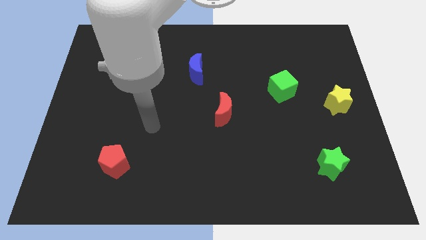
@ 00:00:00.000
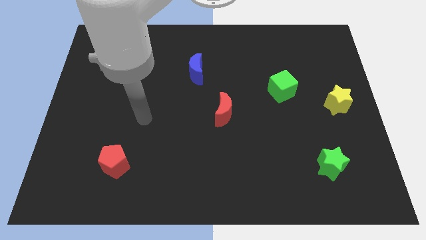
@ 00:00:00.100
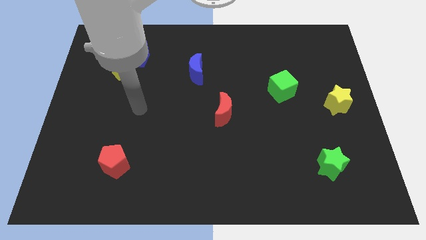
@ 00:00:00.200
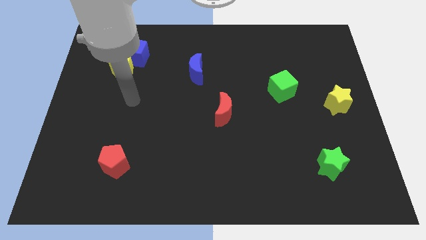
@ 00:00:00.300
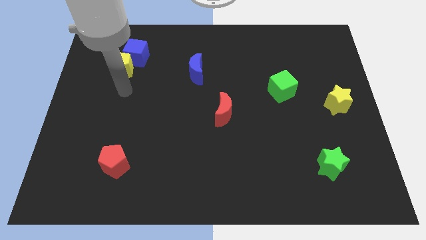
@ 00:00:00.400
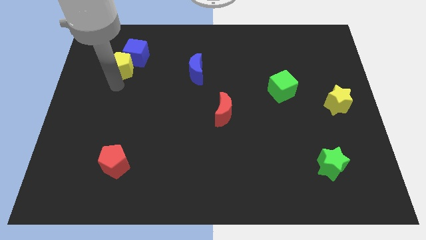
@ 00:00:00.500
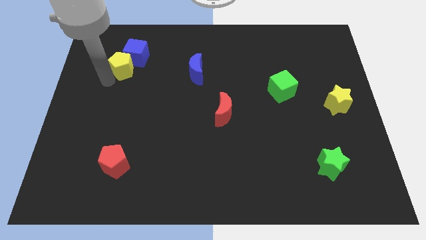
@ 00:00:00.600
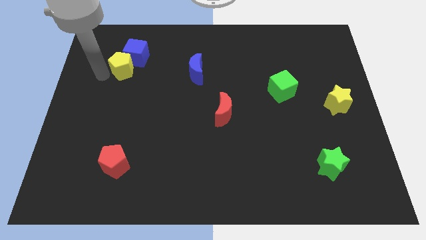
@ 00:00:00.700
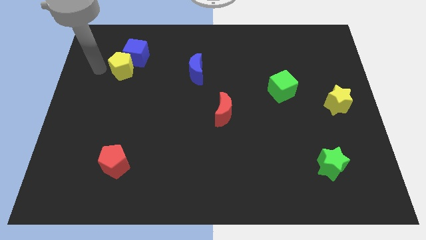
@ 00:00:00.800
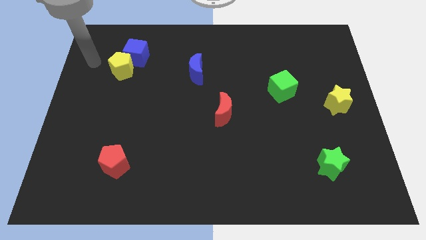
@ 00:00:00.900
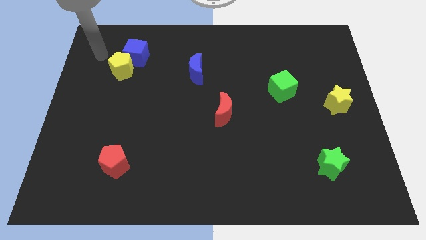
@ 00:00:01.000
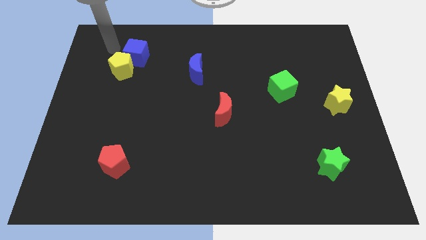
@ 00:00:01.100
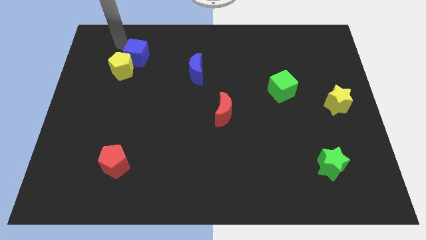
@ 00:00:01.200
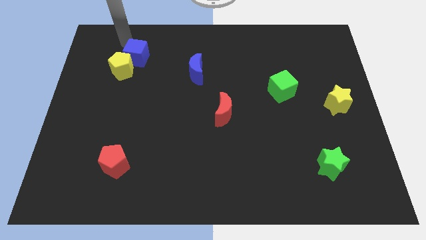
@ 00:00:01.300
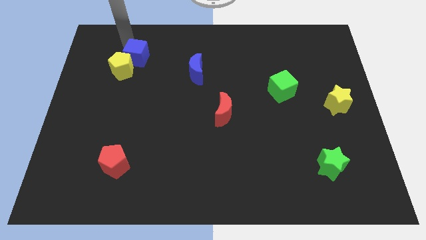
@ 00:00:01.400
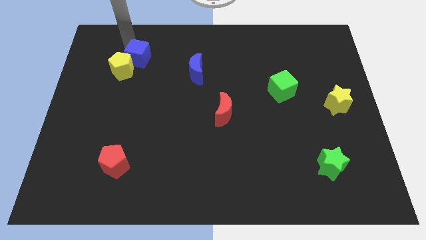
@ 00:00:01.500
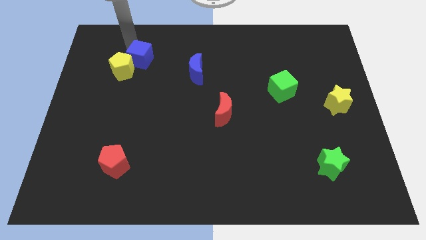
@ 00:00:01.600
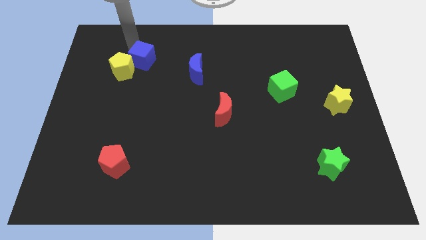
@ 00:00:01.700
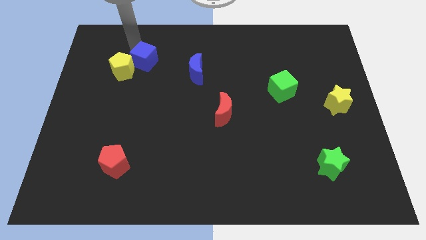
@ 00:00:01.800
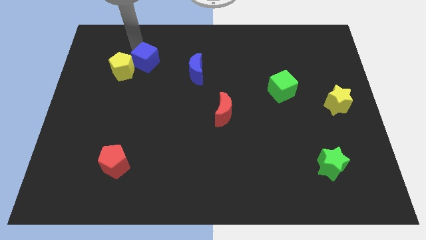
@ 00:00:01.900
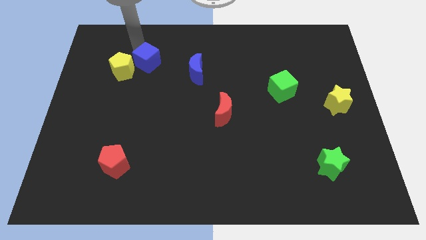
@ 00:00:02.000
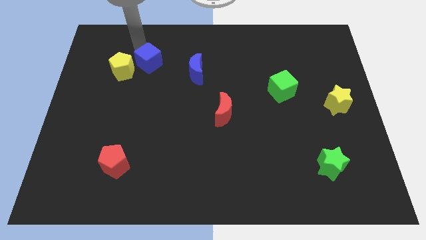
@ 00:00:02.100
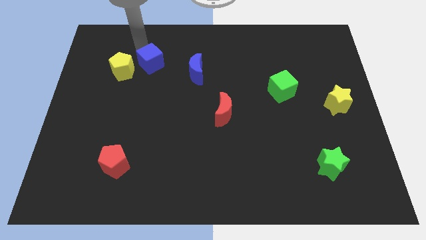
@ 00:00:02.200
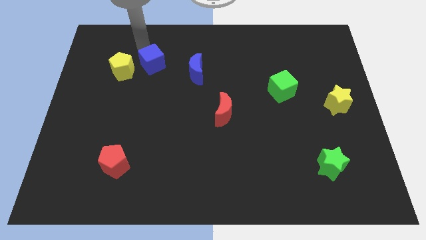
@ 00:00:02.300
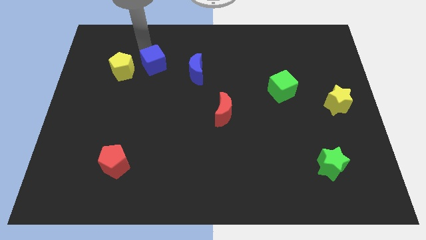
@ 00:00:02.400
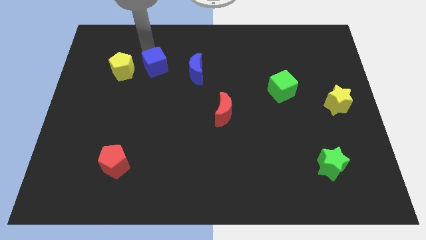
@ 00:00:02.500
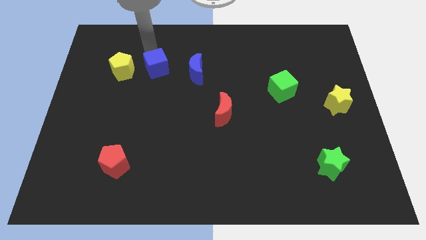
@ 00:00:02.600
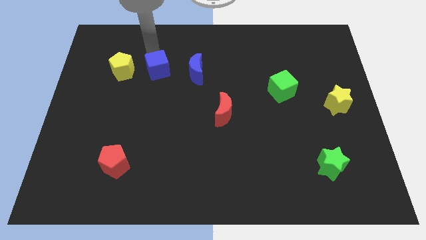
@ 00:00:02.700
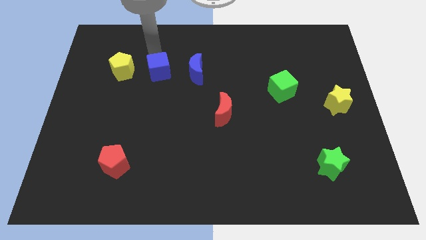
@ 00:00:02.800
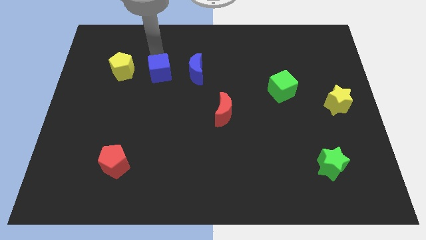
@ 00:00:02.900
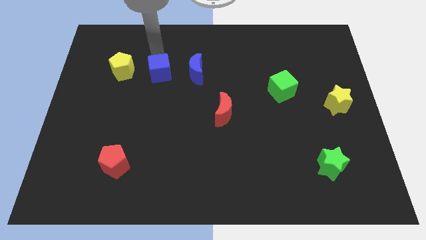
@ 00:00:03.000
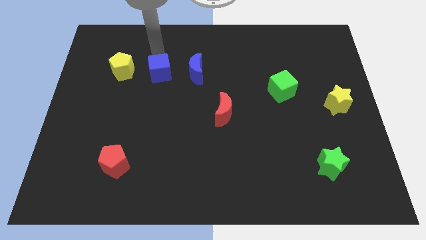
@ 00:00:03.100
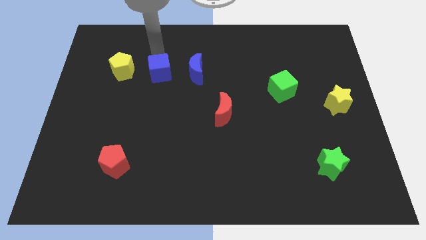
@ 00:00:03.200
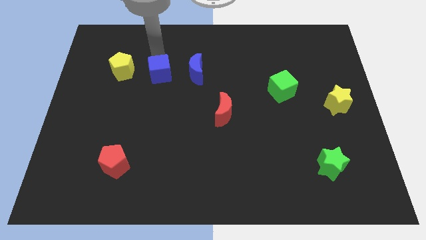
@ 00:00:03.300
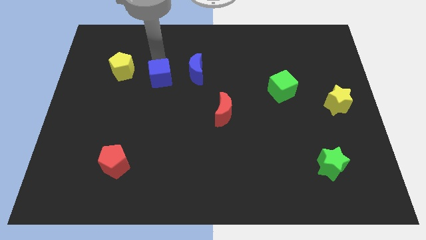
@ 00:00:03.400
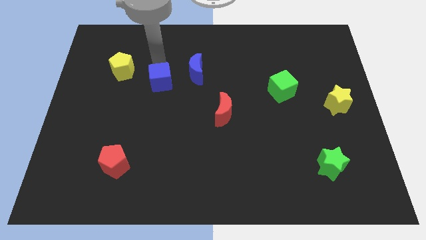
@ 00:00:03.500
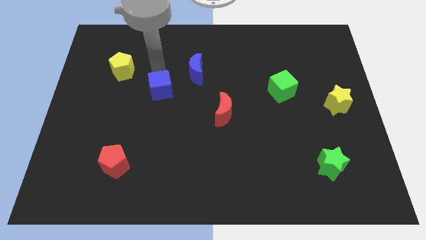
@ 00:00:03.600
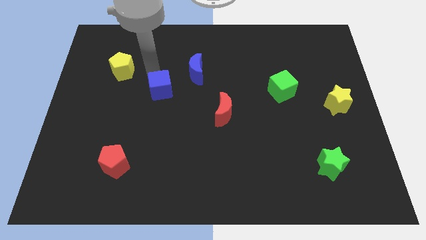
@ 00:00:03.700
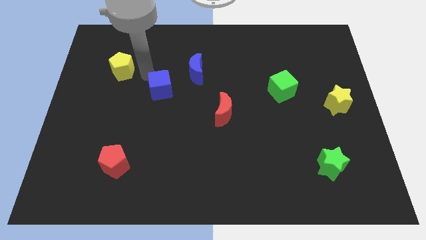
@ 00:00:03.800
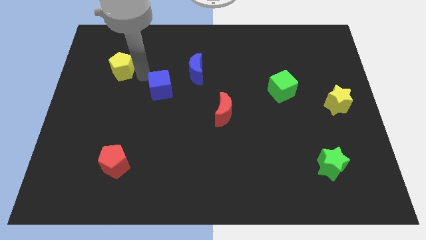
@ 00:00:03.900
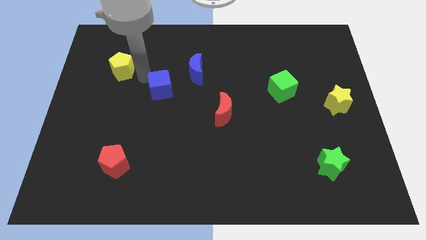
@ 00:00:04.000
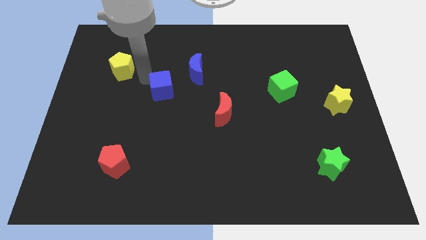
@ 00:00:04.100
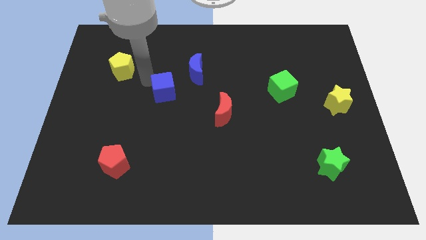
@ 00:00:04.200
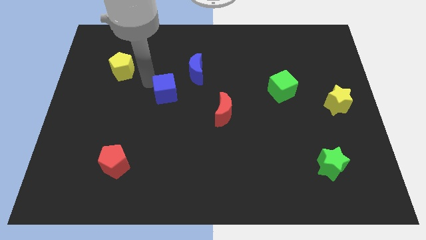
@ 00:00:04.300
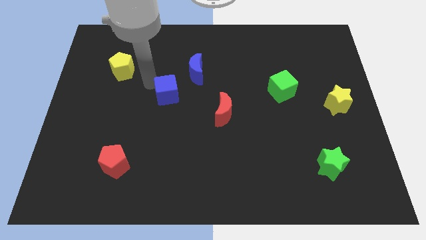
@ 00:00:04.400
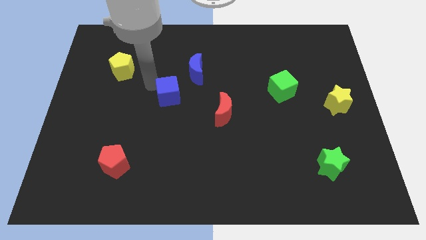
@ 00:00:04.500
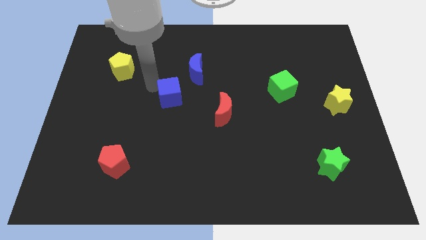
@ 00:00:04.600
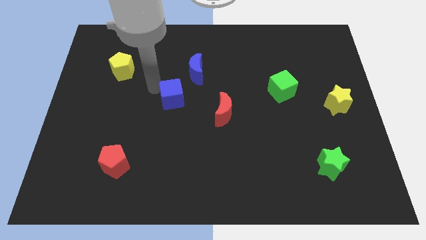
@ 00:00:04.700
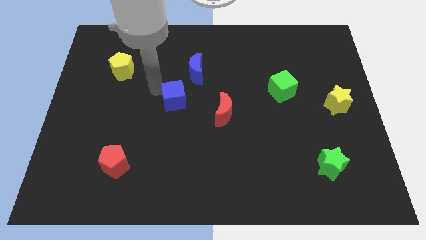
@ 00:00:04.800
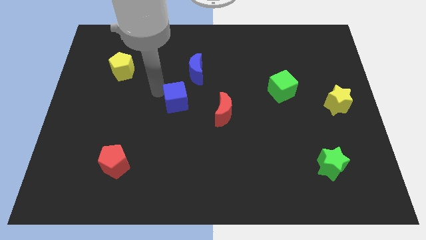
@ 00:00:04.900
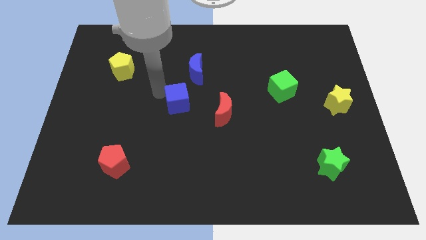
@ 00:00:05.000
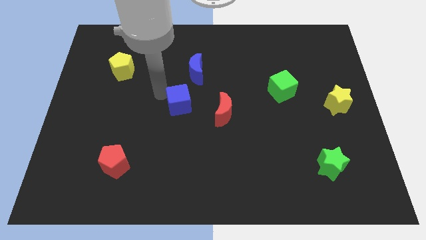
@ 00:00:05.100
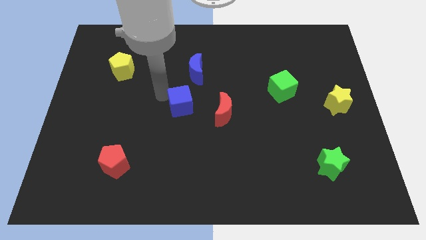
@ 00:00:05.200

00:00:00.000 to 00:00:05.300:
slide the blue cube diagonally down and right

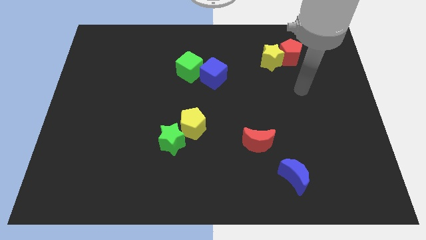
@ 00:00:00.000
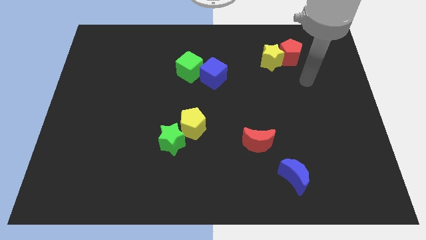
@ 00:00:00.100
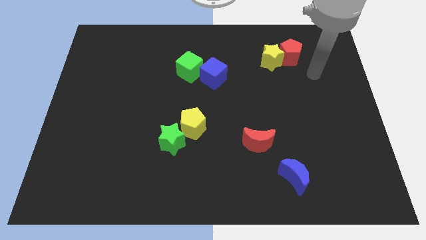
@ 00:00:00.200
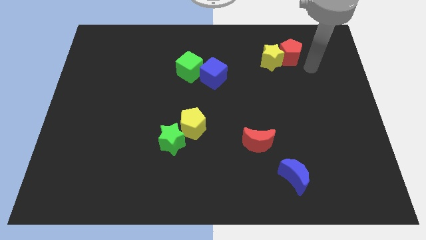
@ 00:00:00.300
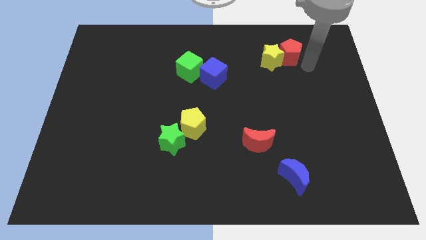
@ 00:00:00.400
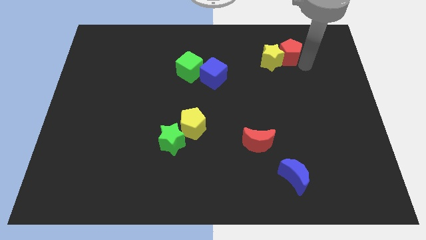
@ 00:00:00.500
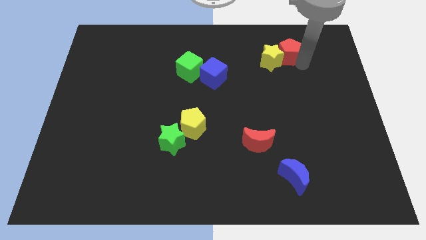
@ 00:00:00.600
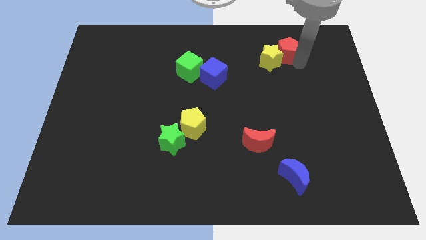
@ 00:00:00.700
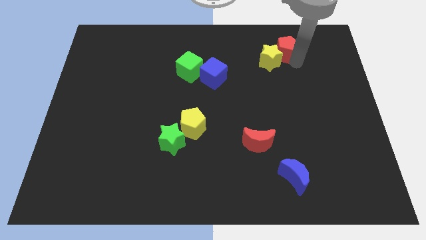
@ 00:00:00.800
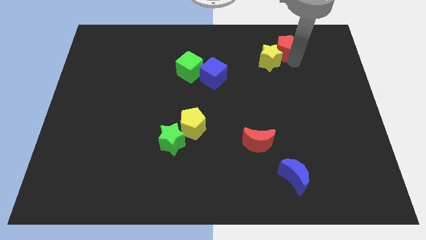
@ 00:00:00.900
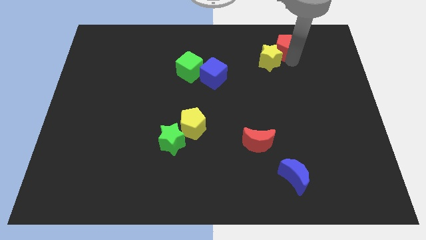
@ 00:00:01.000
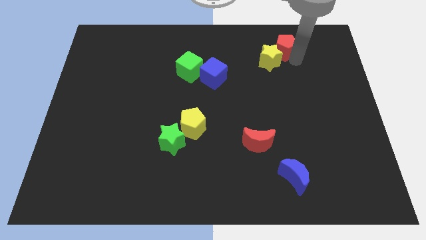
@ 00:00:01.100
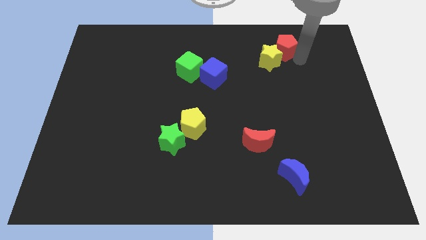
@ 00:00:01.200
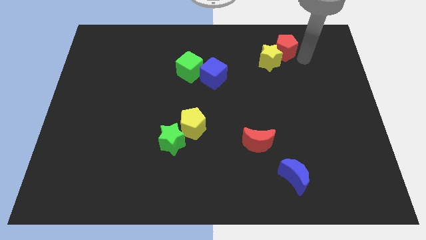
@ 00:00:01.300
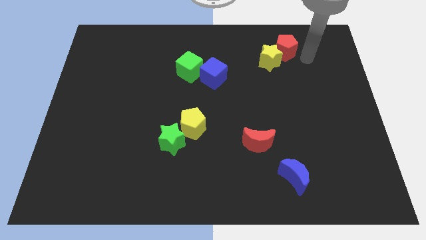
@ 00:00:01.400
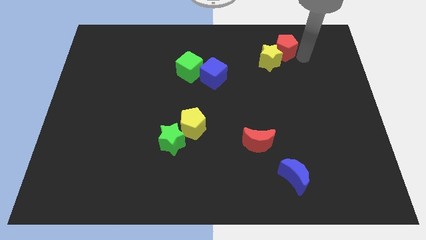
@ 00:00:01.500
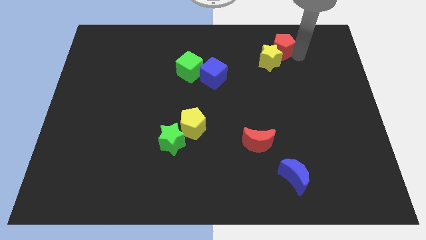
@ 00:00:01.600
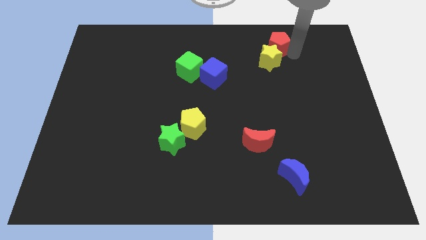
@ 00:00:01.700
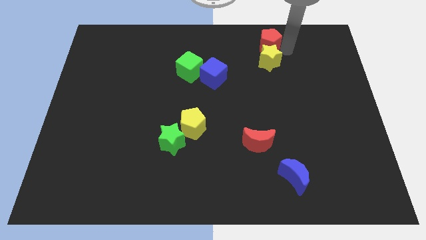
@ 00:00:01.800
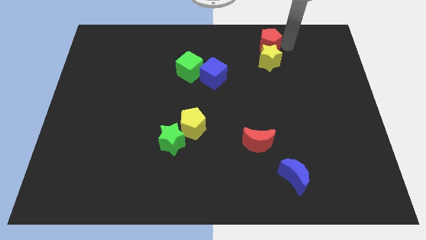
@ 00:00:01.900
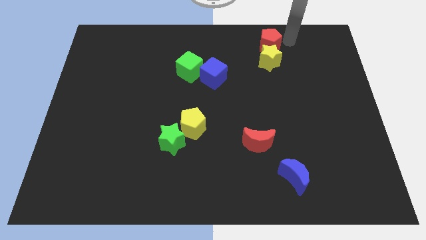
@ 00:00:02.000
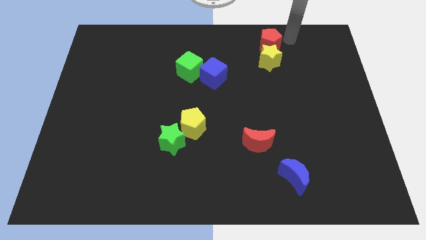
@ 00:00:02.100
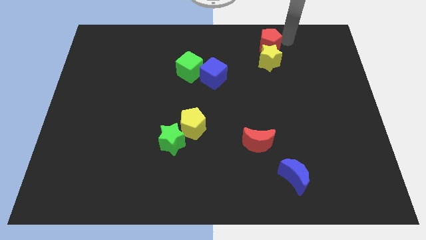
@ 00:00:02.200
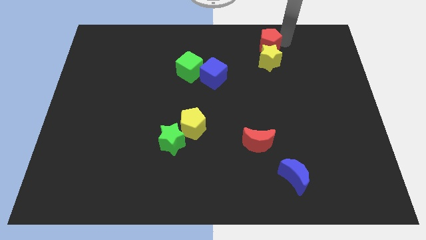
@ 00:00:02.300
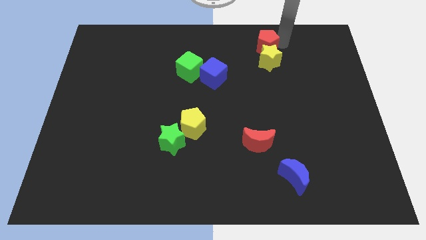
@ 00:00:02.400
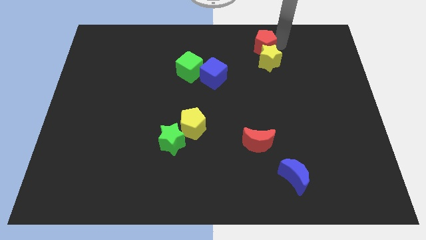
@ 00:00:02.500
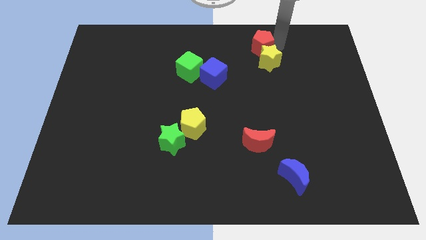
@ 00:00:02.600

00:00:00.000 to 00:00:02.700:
slide the red pentagon to the left a little bit
